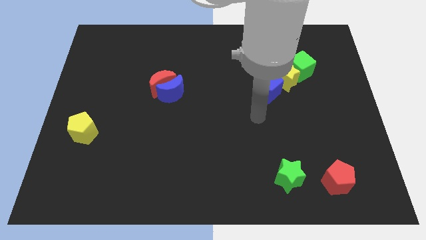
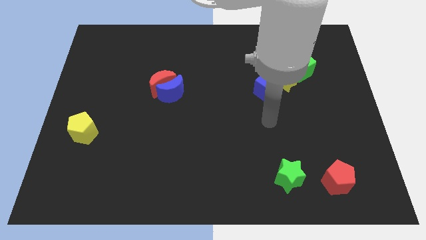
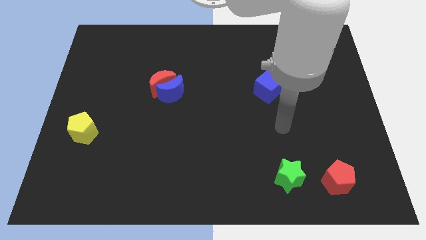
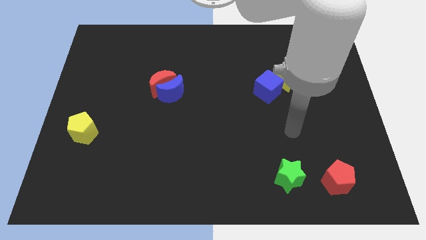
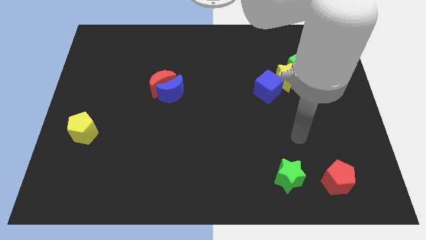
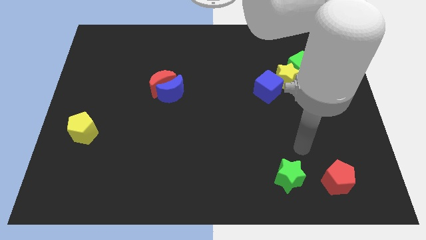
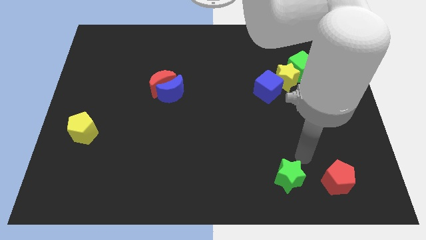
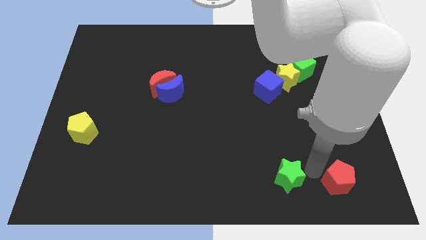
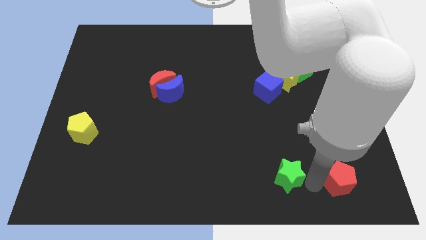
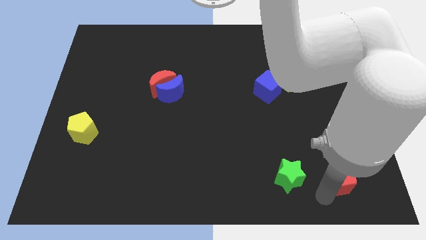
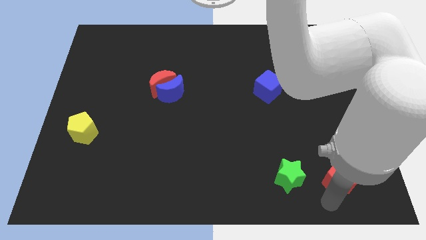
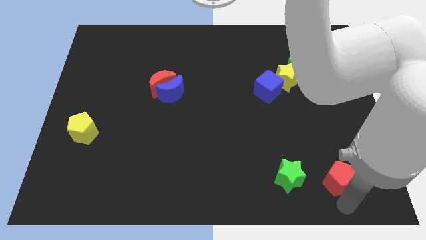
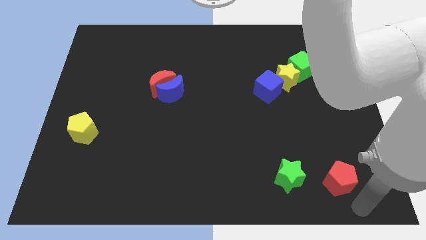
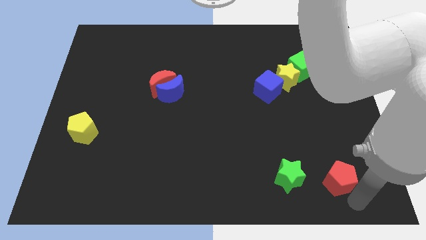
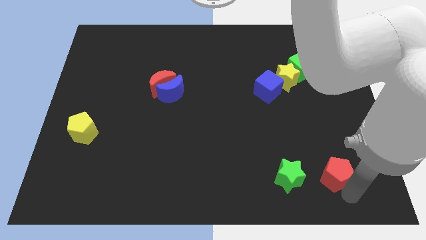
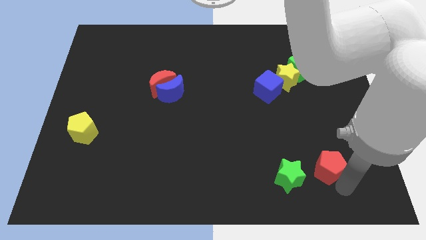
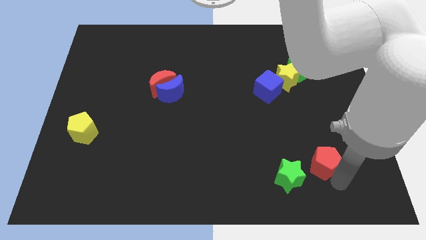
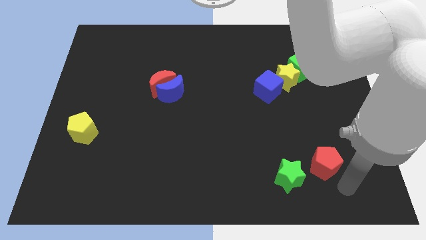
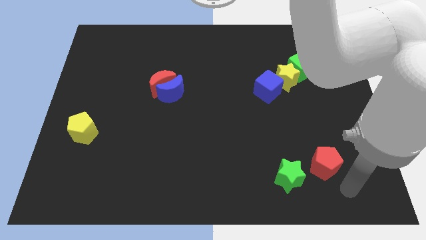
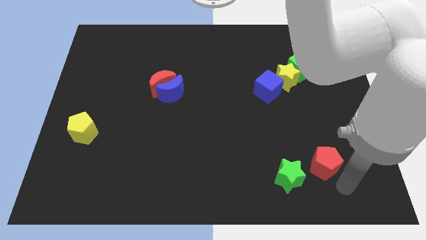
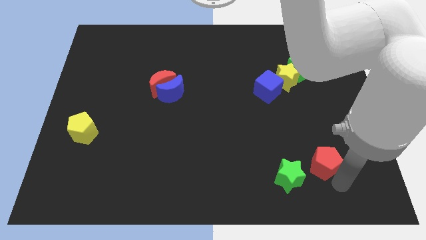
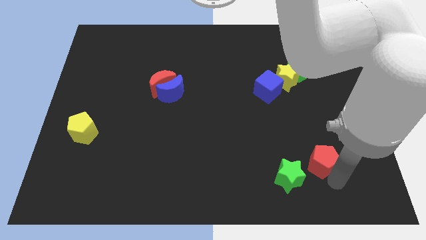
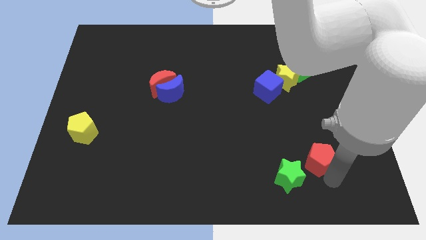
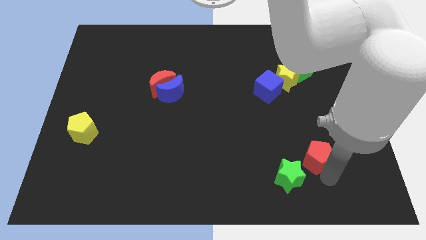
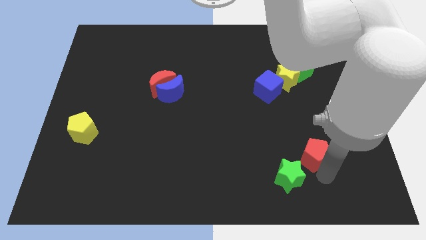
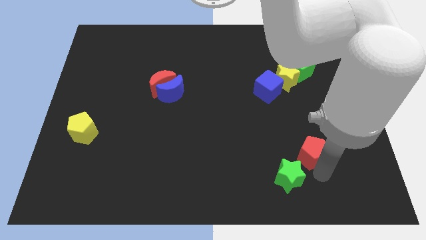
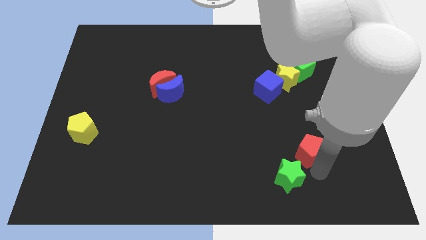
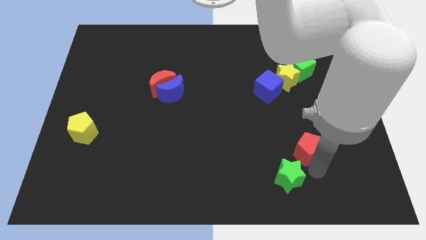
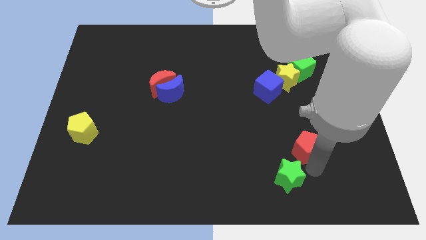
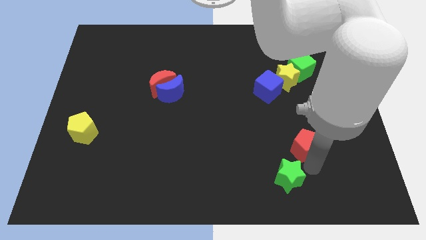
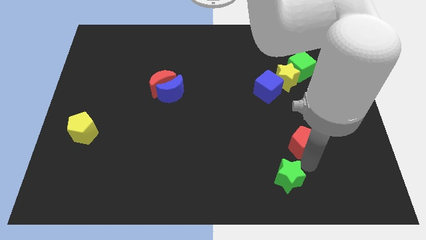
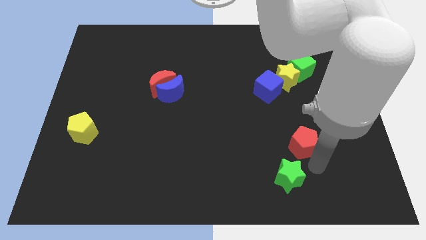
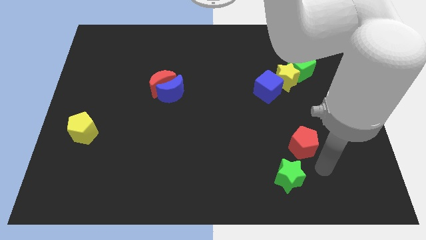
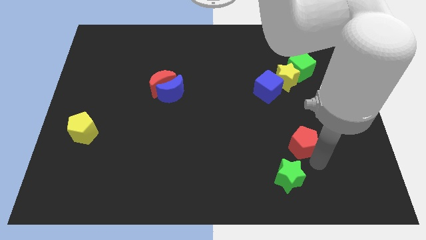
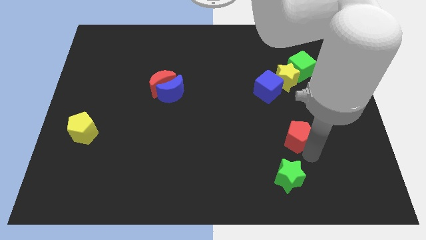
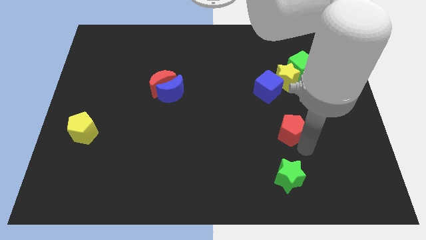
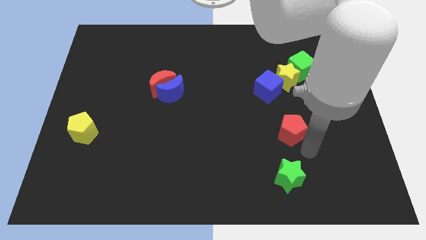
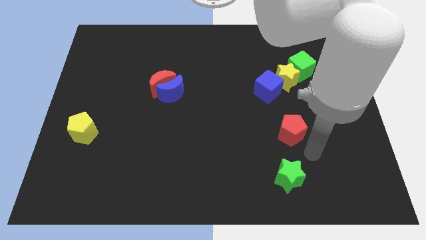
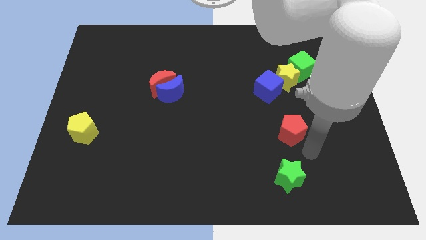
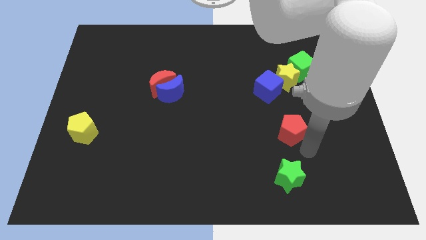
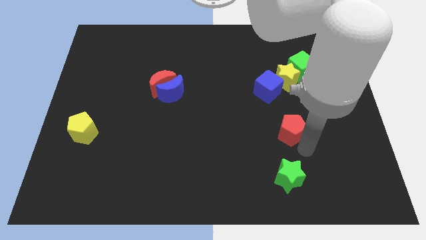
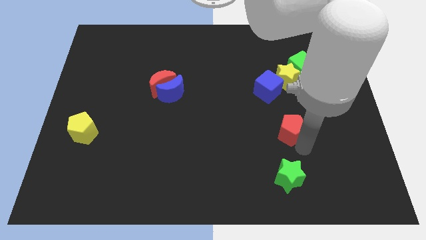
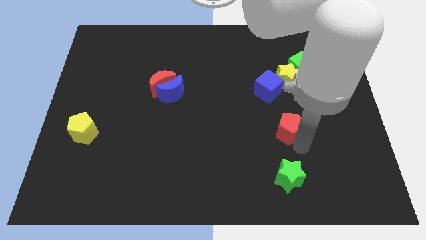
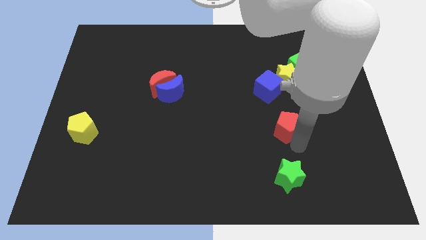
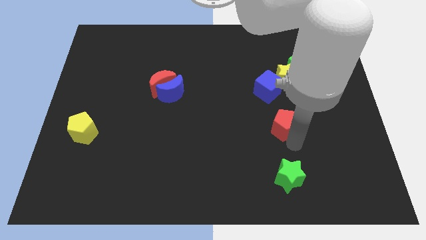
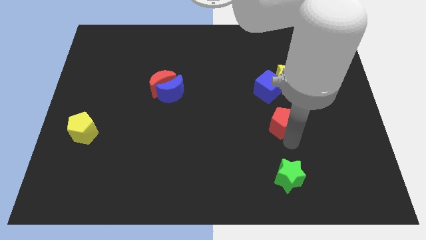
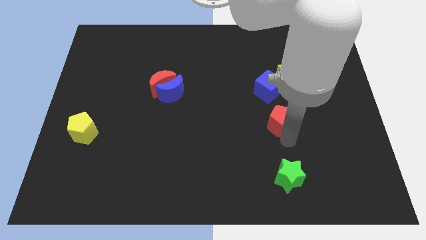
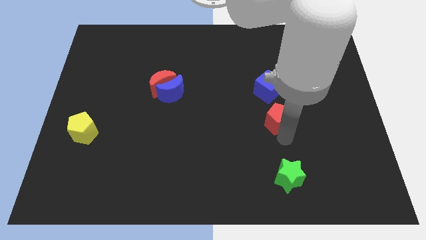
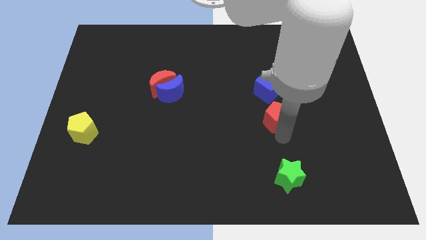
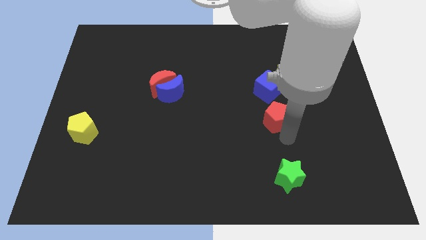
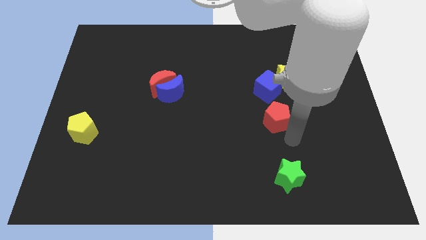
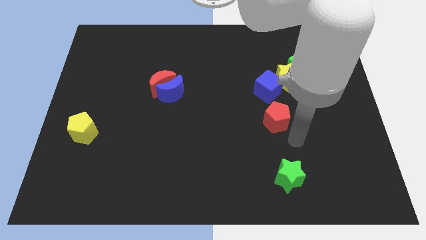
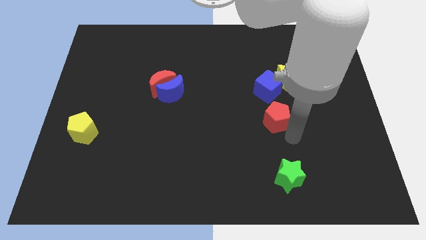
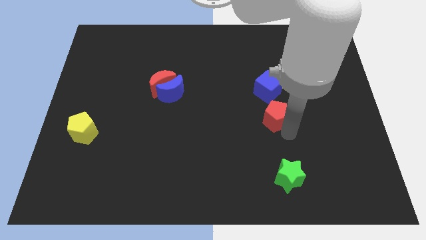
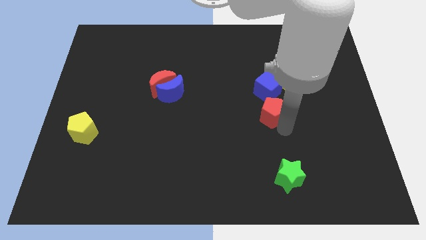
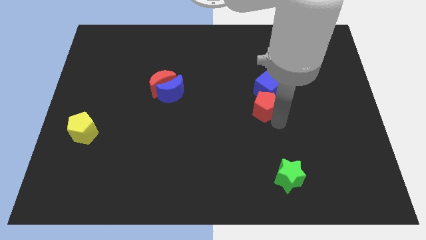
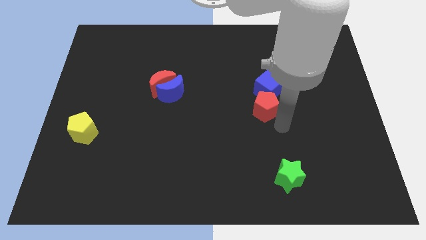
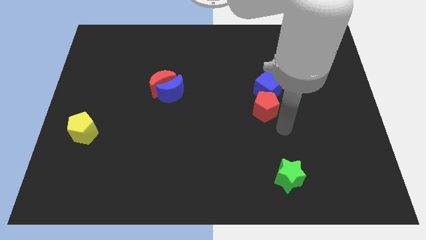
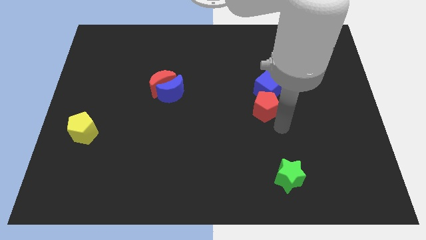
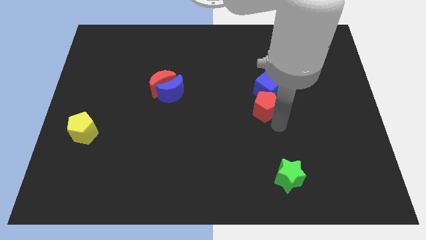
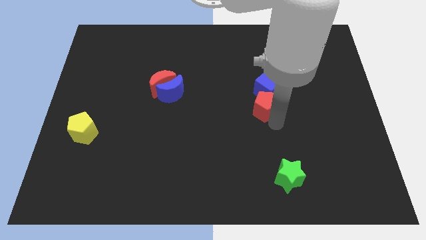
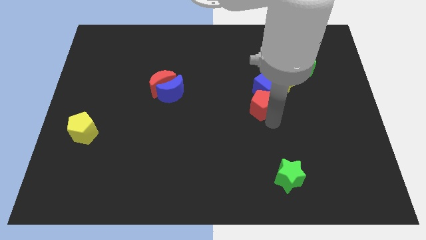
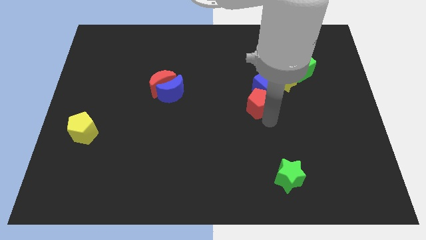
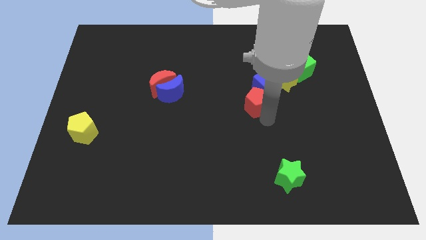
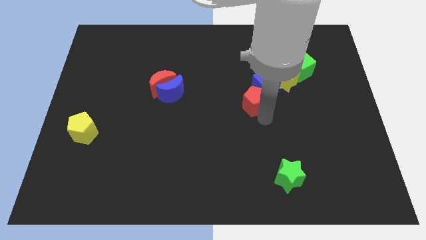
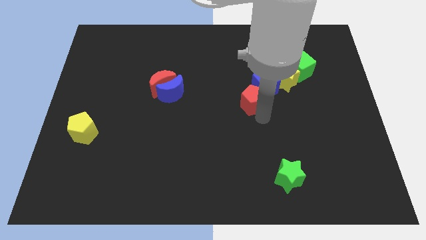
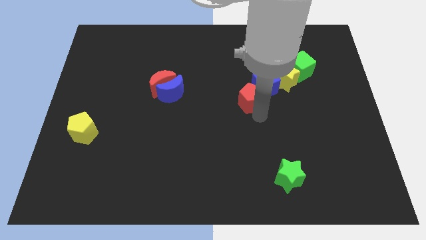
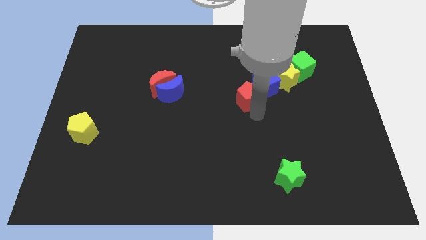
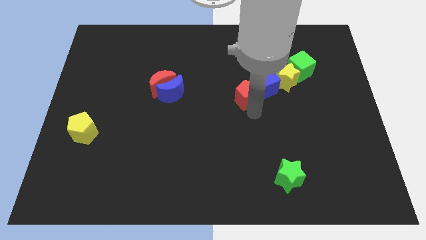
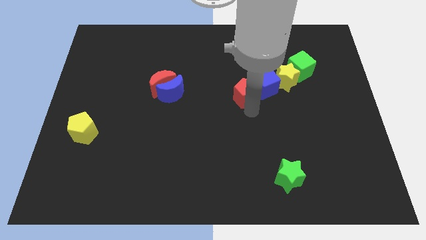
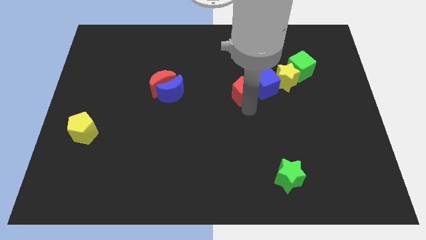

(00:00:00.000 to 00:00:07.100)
push the red pentagon left of the yellow star
